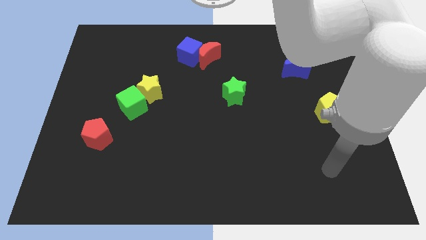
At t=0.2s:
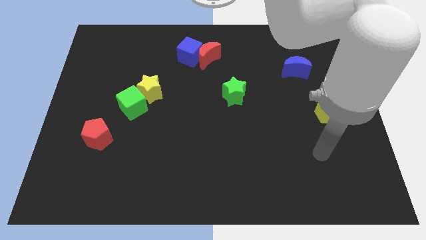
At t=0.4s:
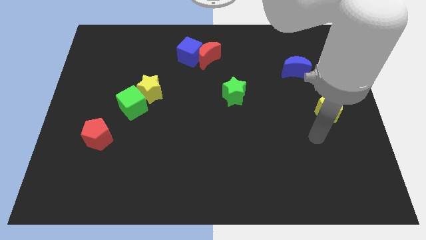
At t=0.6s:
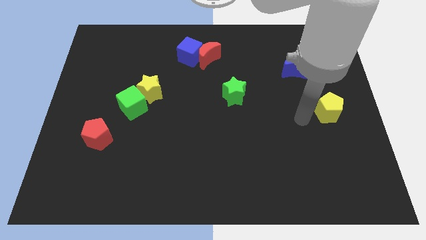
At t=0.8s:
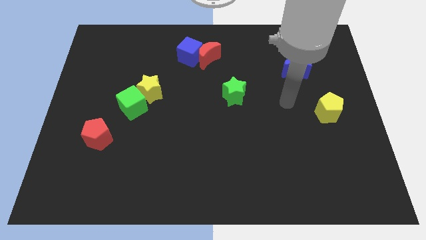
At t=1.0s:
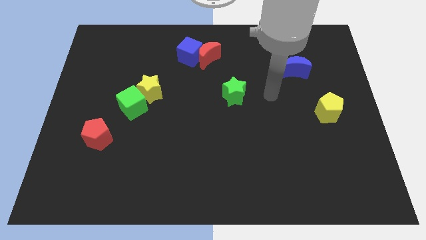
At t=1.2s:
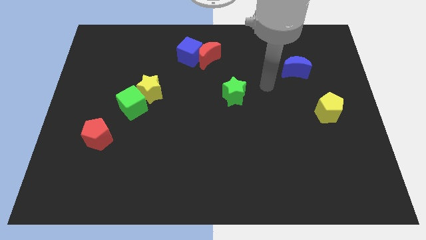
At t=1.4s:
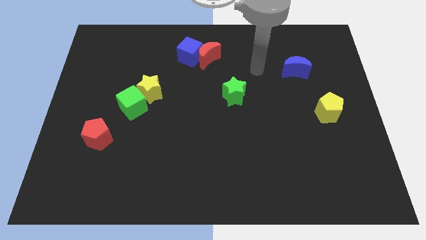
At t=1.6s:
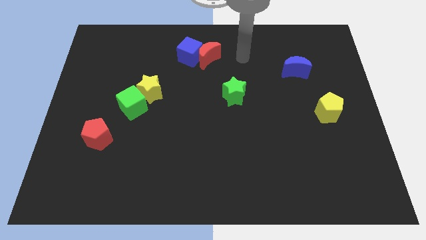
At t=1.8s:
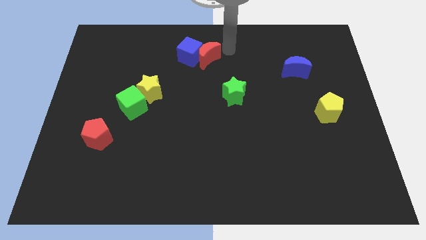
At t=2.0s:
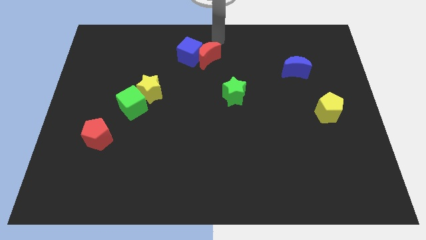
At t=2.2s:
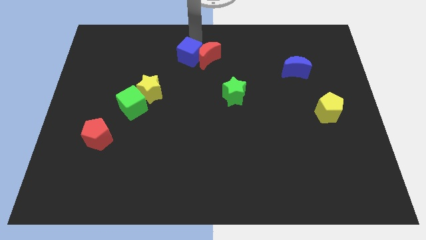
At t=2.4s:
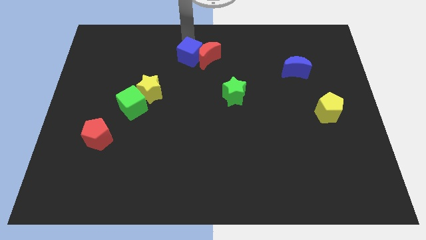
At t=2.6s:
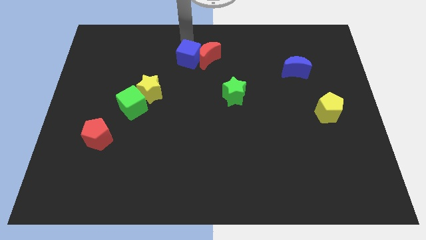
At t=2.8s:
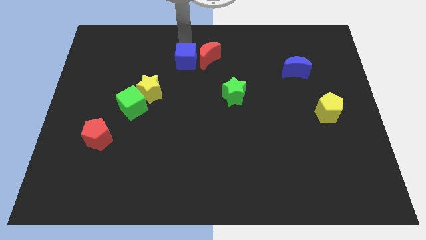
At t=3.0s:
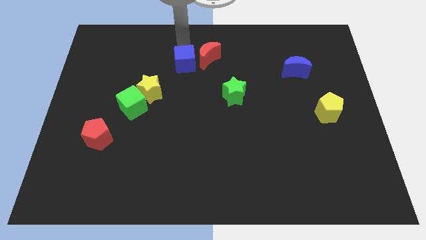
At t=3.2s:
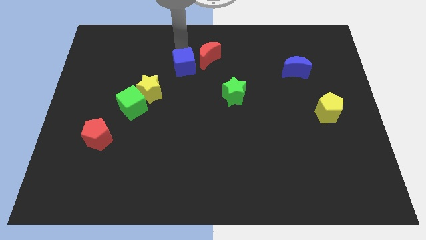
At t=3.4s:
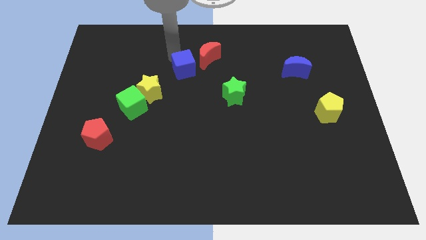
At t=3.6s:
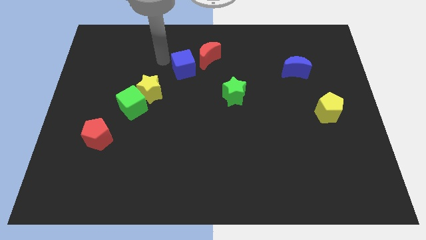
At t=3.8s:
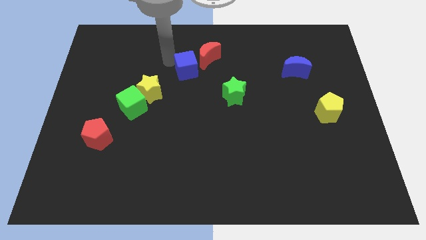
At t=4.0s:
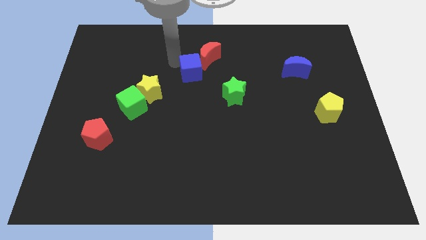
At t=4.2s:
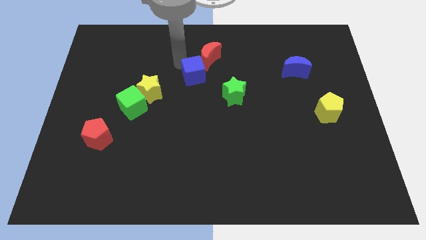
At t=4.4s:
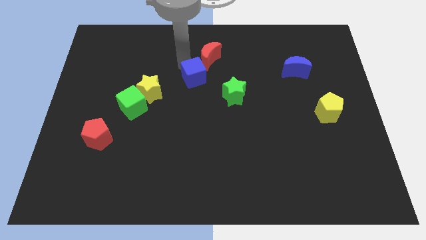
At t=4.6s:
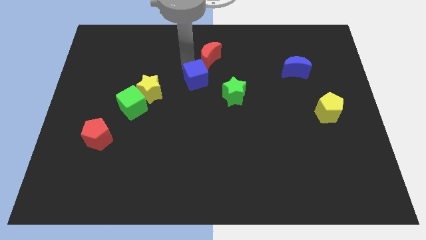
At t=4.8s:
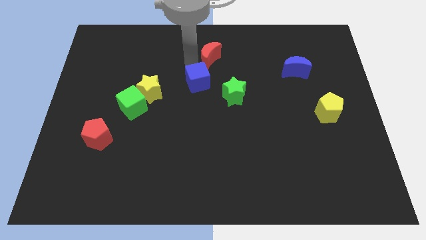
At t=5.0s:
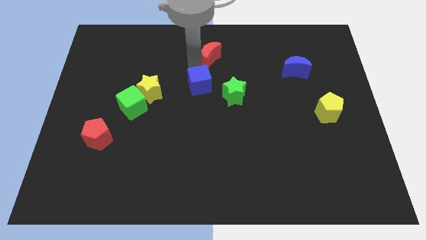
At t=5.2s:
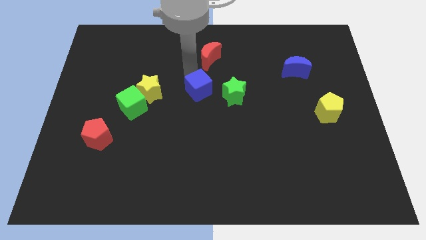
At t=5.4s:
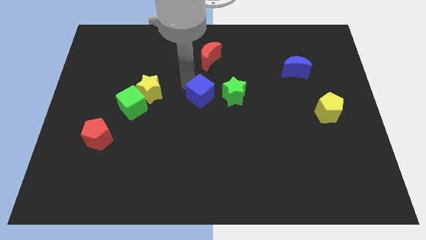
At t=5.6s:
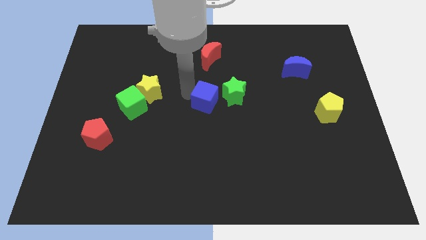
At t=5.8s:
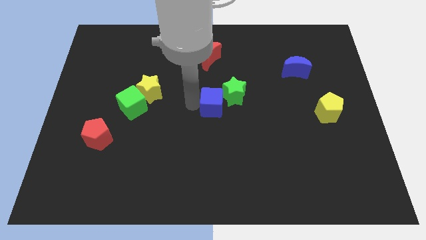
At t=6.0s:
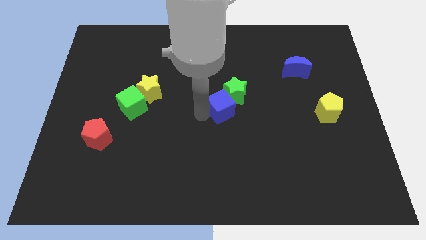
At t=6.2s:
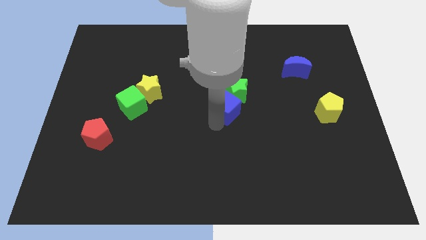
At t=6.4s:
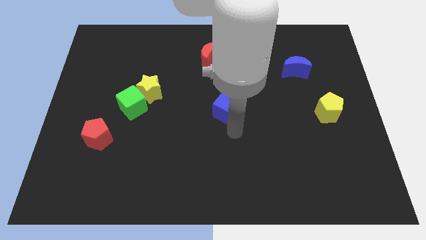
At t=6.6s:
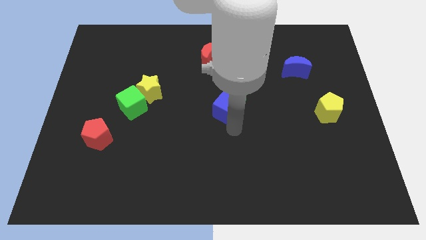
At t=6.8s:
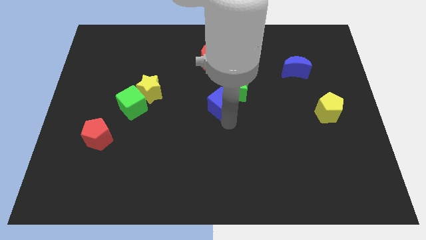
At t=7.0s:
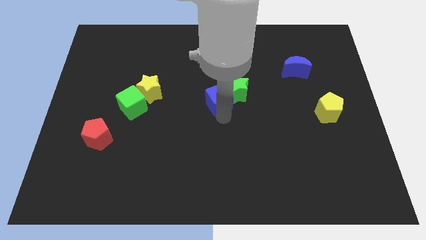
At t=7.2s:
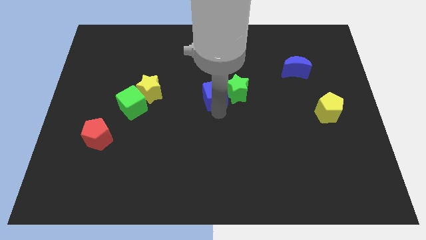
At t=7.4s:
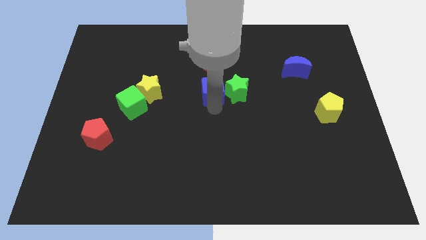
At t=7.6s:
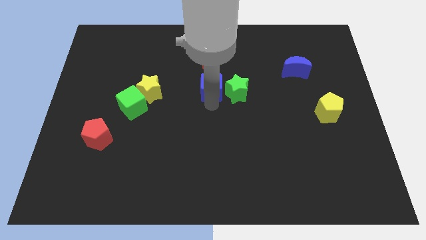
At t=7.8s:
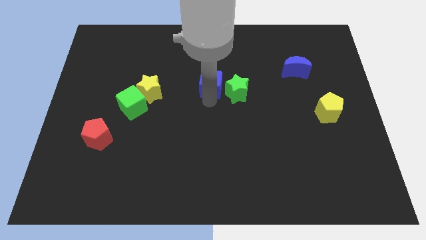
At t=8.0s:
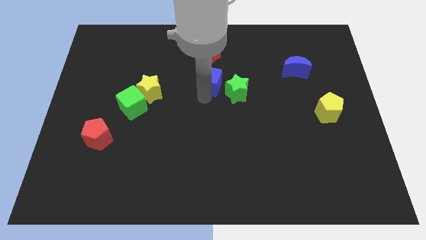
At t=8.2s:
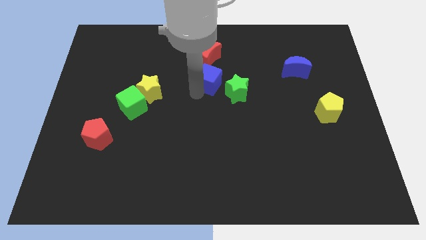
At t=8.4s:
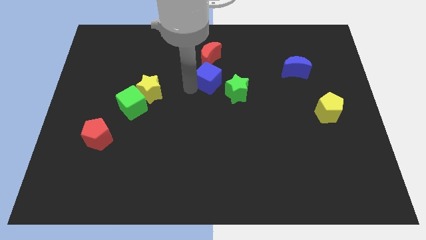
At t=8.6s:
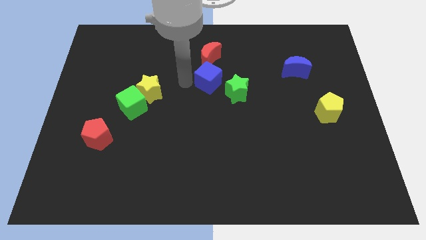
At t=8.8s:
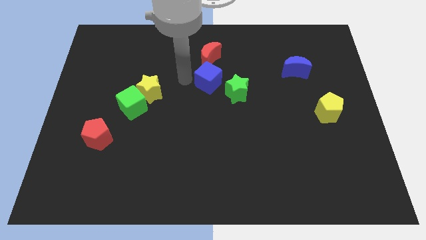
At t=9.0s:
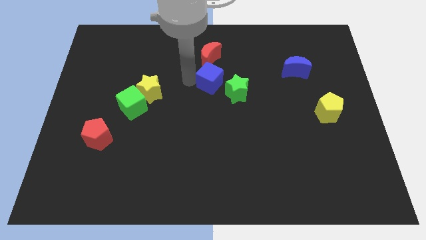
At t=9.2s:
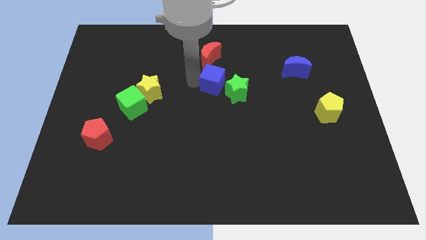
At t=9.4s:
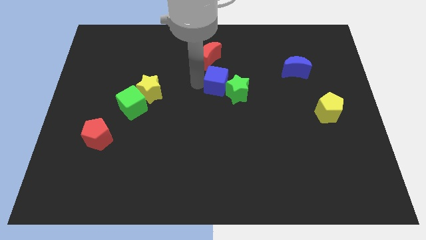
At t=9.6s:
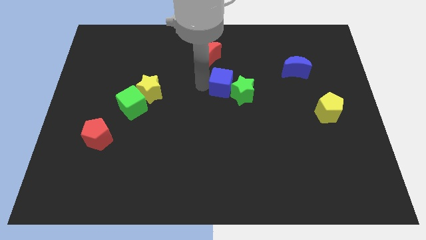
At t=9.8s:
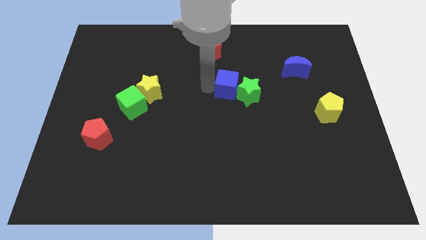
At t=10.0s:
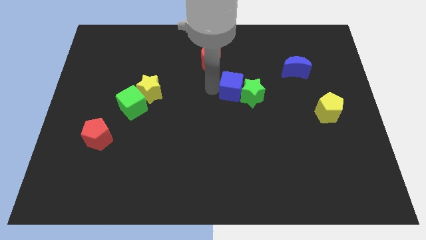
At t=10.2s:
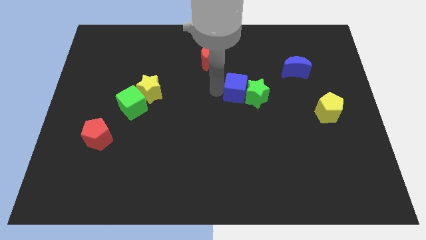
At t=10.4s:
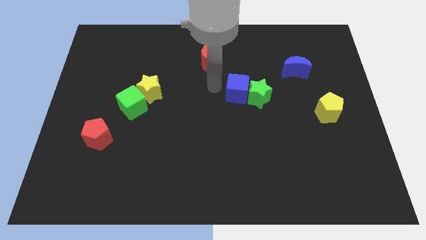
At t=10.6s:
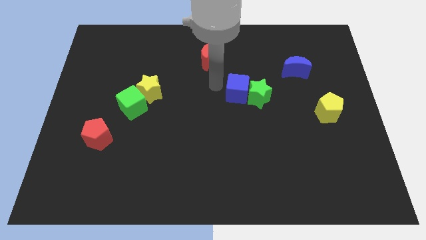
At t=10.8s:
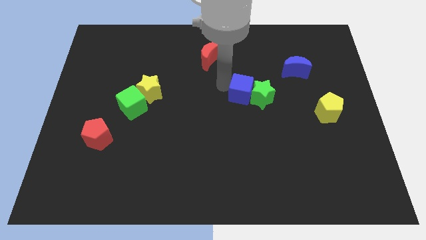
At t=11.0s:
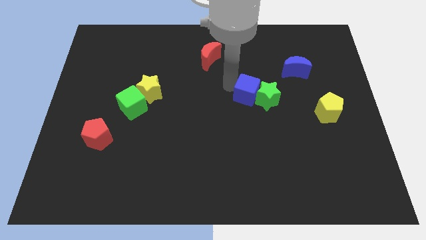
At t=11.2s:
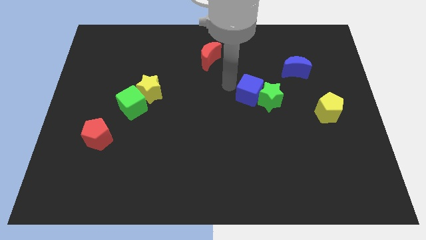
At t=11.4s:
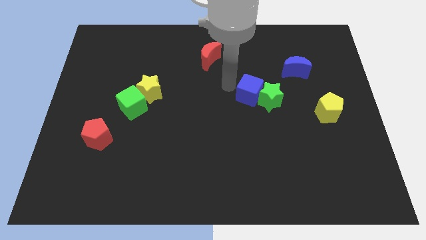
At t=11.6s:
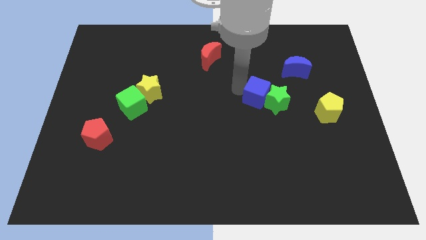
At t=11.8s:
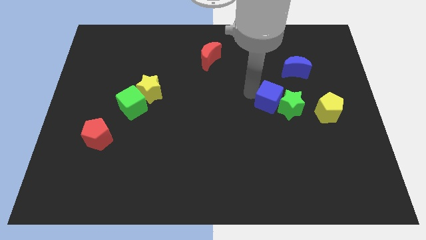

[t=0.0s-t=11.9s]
put the blue cube left of the yellow pentagon

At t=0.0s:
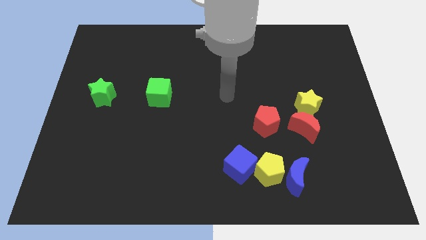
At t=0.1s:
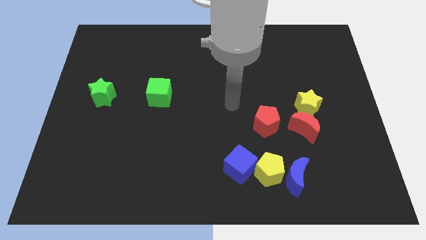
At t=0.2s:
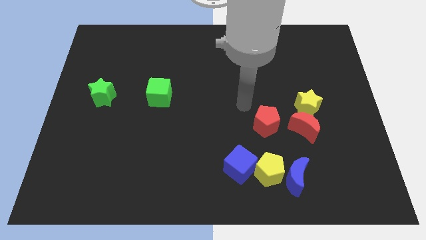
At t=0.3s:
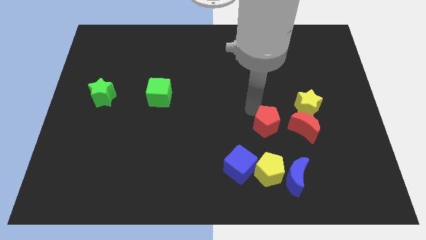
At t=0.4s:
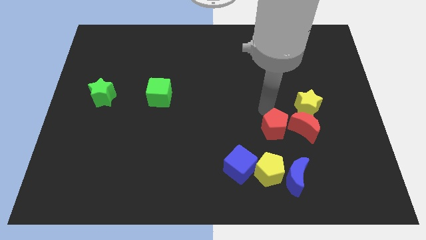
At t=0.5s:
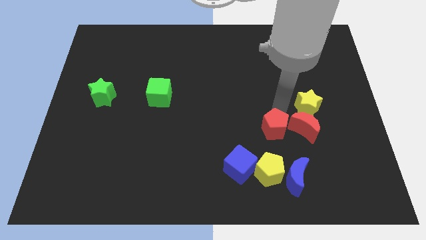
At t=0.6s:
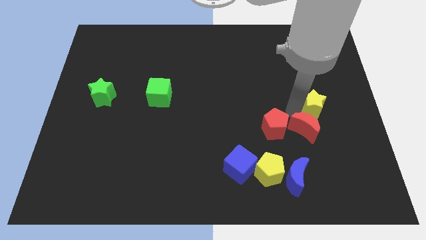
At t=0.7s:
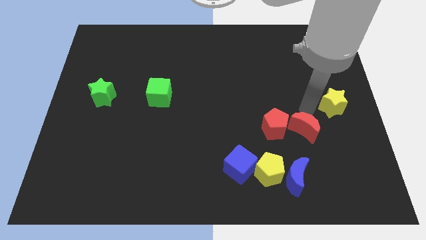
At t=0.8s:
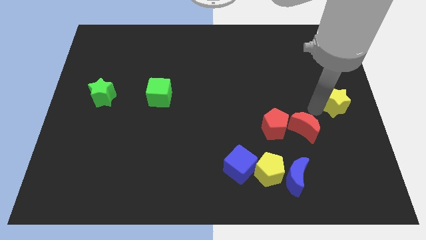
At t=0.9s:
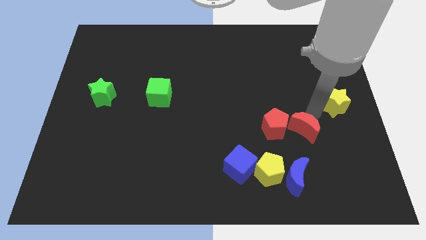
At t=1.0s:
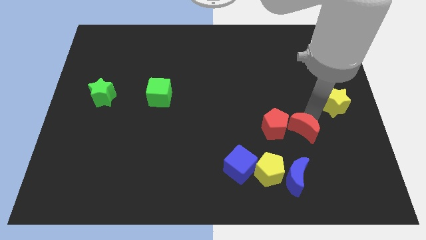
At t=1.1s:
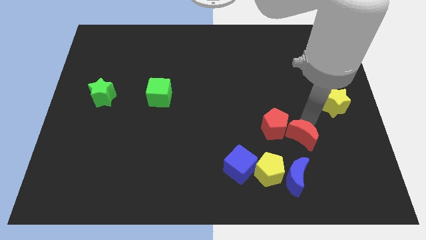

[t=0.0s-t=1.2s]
put the red moon to the top right side of the yellow pentagon

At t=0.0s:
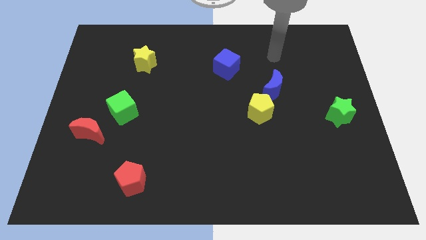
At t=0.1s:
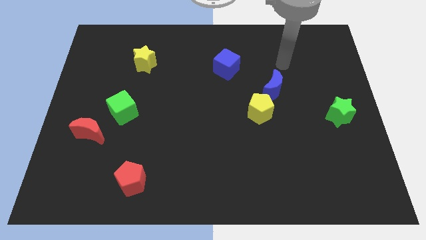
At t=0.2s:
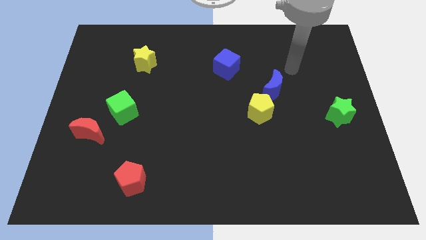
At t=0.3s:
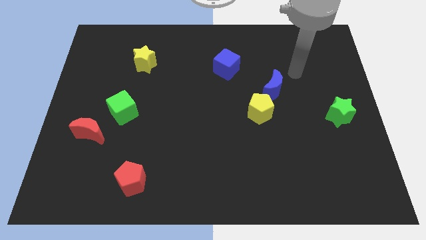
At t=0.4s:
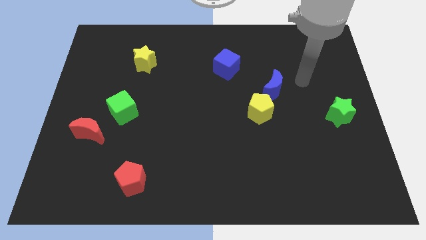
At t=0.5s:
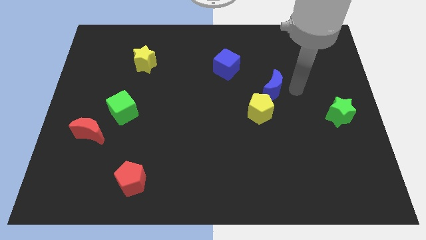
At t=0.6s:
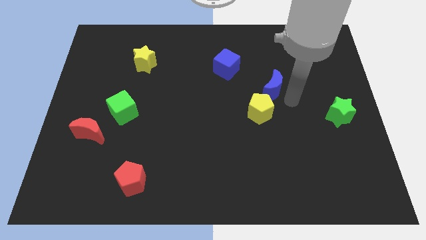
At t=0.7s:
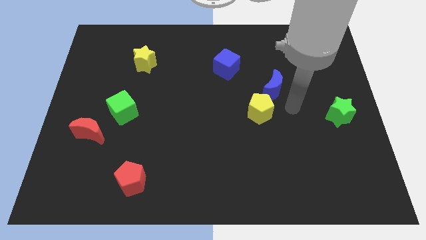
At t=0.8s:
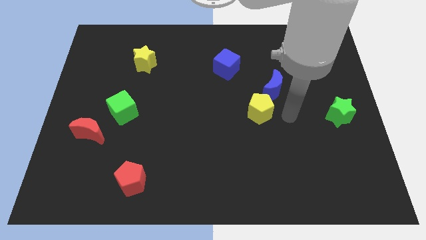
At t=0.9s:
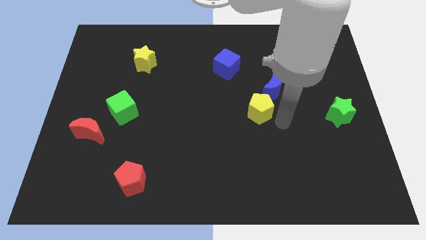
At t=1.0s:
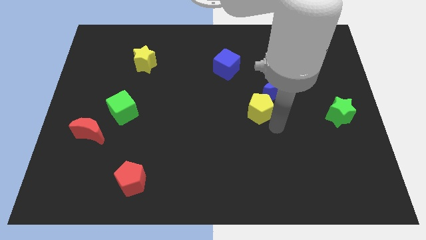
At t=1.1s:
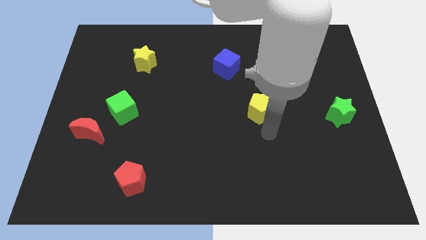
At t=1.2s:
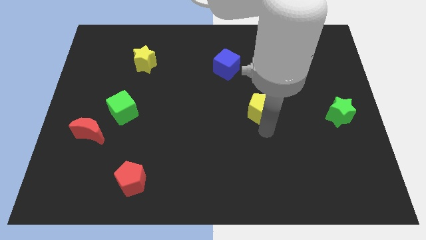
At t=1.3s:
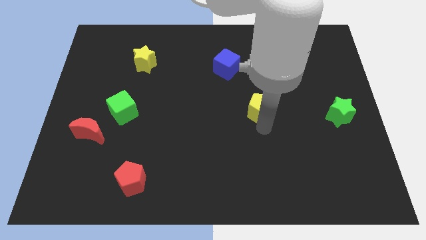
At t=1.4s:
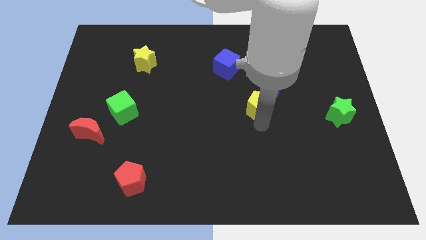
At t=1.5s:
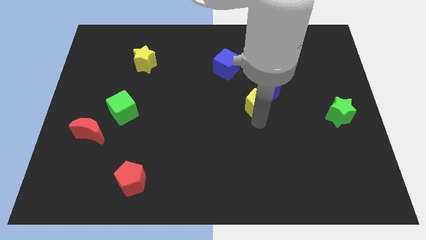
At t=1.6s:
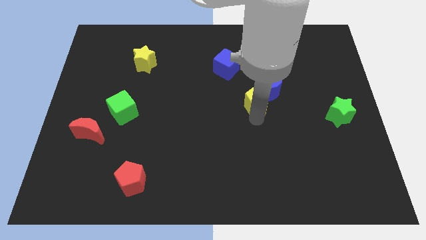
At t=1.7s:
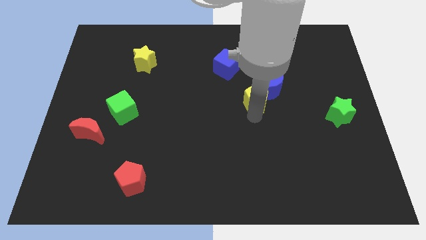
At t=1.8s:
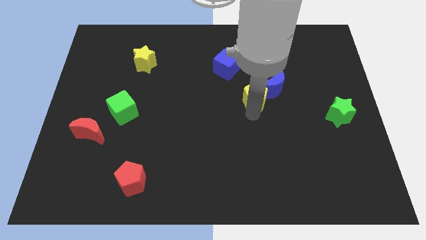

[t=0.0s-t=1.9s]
push the yellow pentagon diagonally down and to the right of the blue cube
